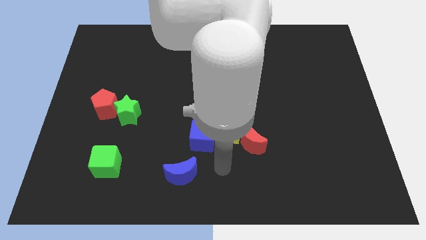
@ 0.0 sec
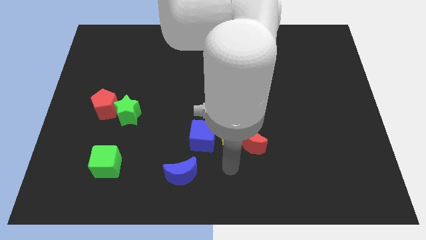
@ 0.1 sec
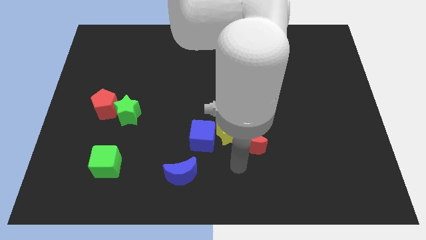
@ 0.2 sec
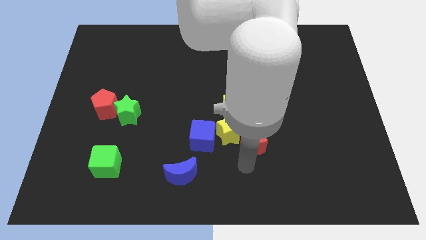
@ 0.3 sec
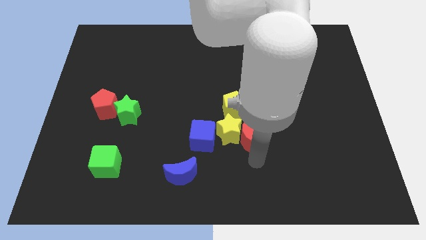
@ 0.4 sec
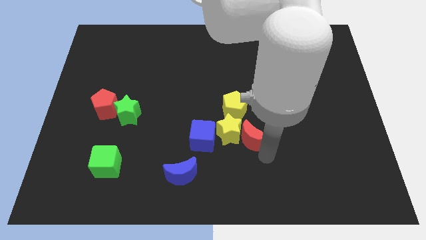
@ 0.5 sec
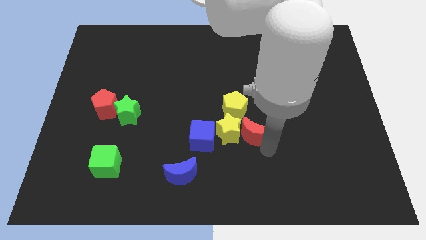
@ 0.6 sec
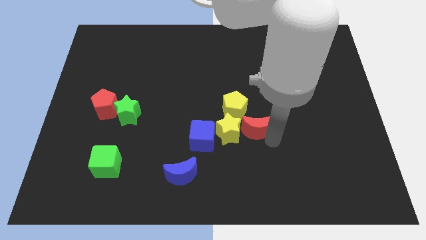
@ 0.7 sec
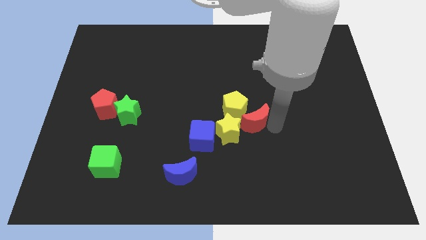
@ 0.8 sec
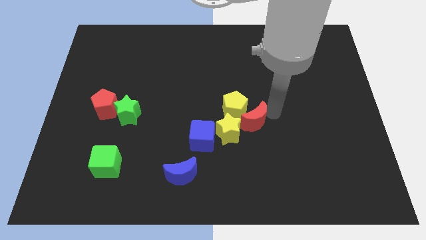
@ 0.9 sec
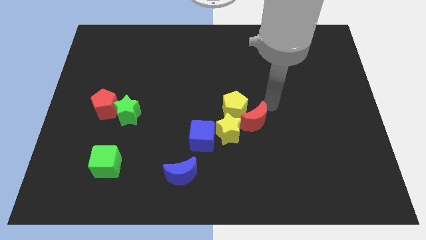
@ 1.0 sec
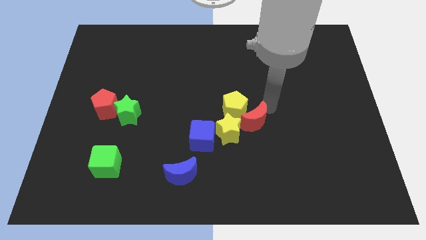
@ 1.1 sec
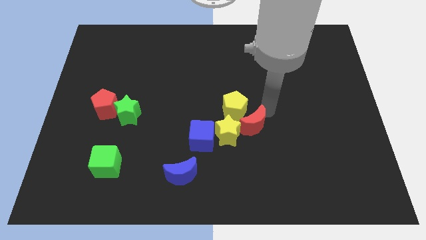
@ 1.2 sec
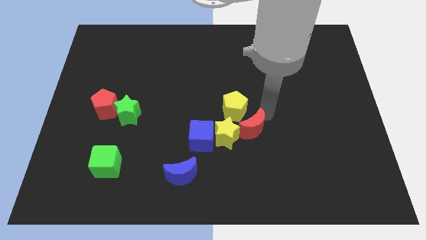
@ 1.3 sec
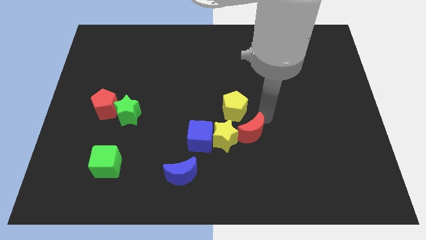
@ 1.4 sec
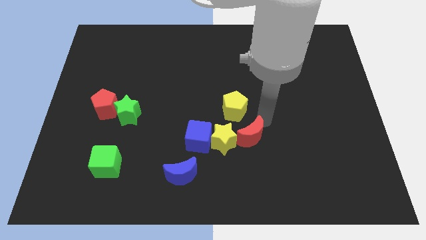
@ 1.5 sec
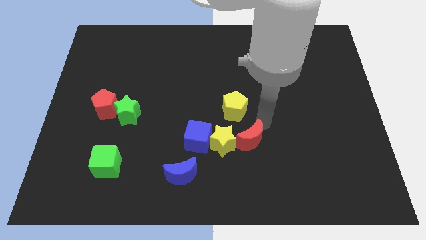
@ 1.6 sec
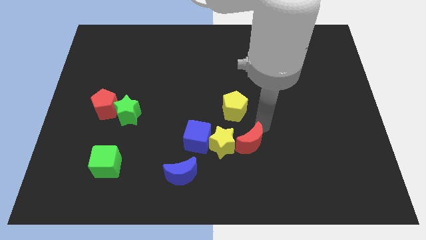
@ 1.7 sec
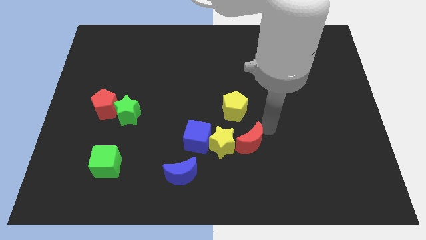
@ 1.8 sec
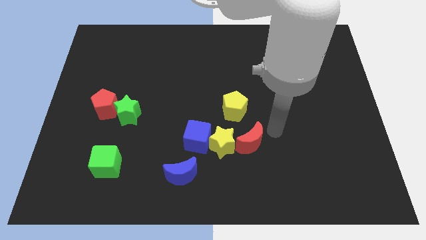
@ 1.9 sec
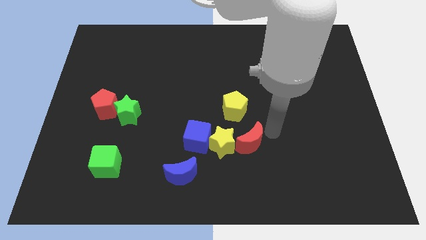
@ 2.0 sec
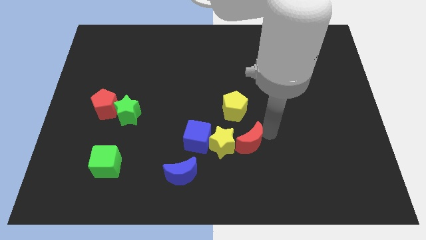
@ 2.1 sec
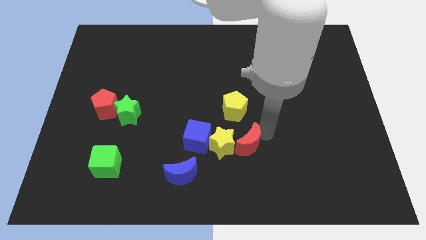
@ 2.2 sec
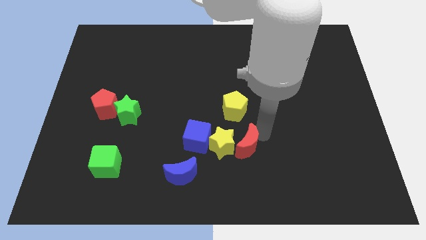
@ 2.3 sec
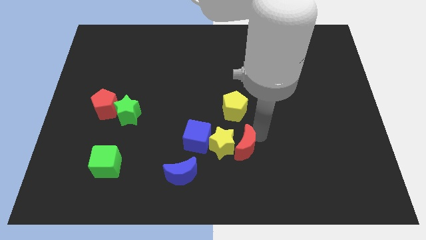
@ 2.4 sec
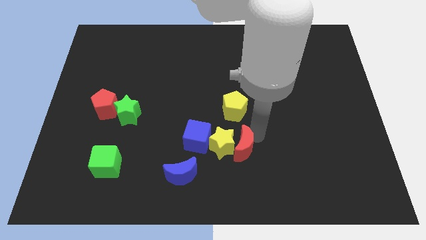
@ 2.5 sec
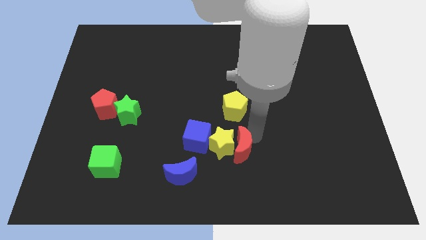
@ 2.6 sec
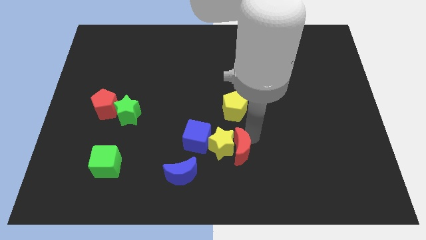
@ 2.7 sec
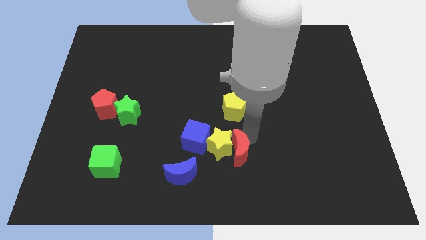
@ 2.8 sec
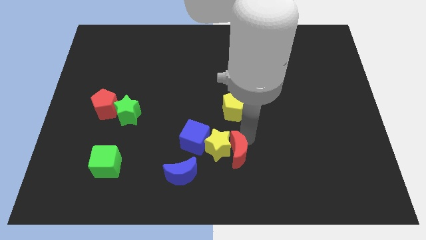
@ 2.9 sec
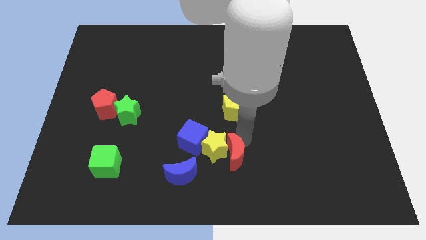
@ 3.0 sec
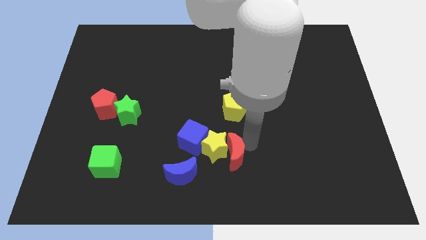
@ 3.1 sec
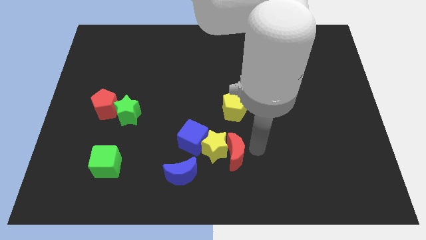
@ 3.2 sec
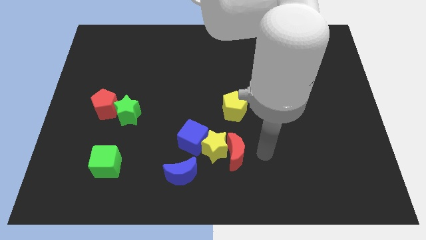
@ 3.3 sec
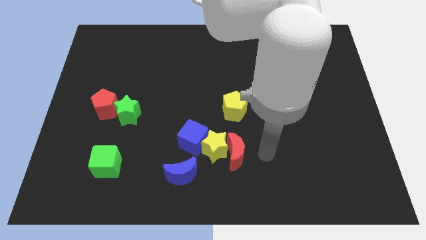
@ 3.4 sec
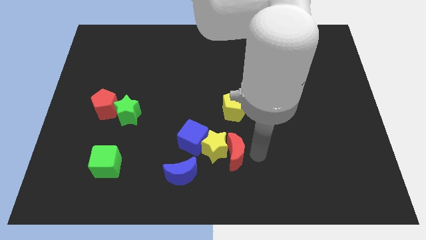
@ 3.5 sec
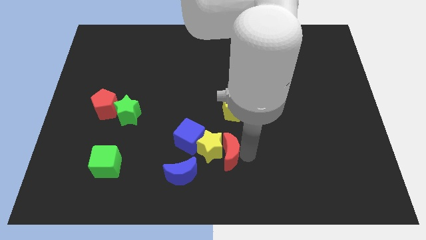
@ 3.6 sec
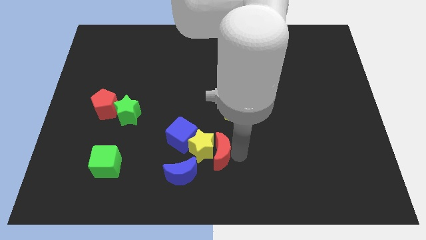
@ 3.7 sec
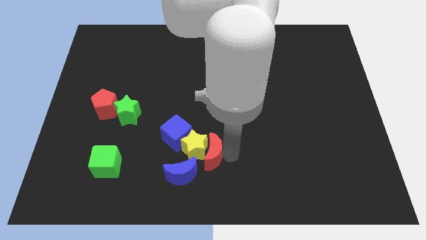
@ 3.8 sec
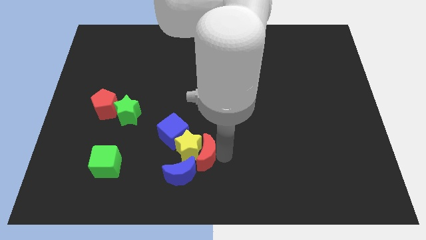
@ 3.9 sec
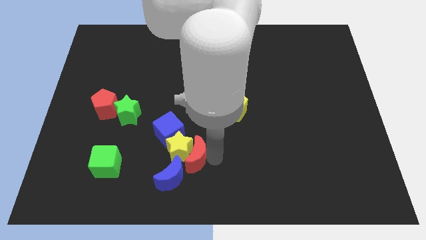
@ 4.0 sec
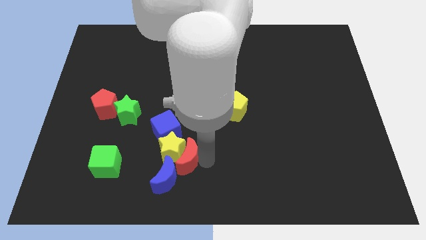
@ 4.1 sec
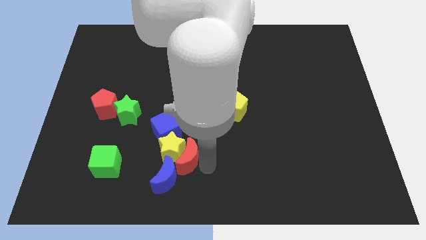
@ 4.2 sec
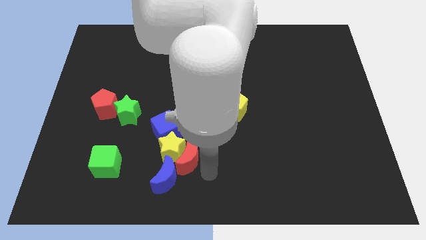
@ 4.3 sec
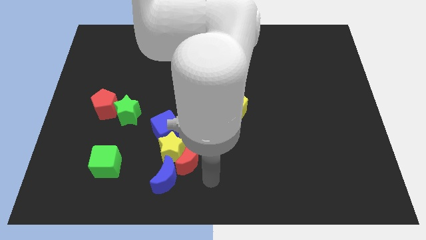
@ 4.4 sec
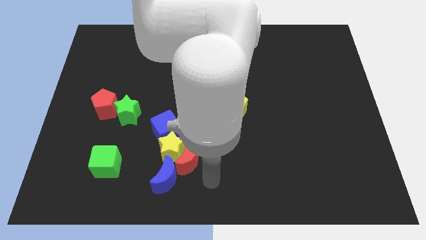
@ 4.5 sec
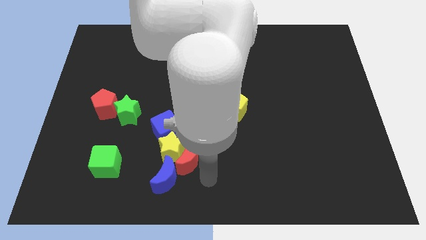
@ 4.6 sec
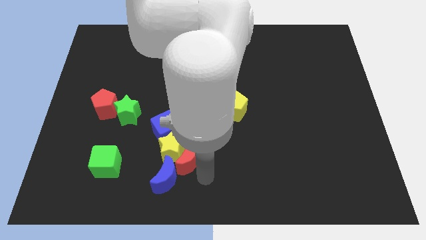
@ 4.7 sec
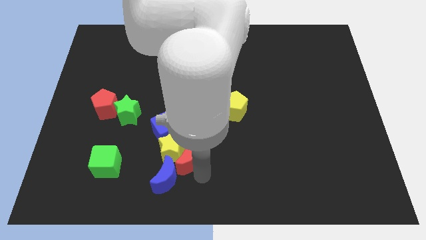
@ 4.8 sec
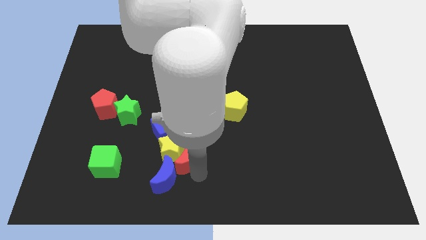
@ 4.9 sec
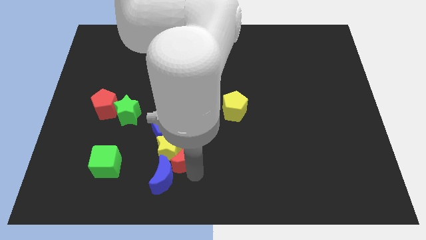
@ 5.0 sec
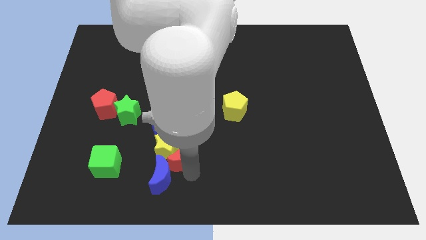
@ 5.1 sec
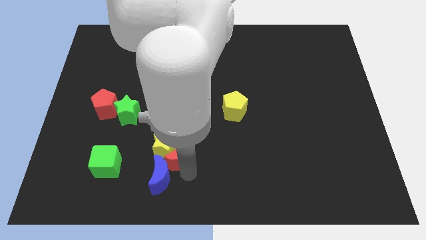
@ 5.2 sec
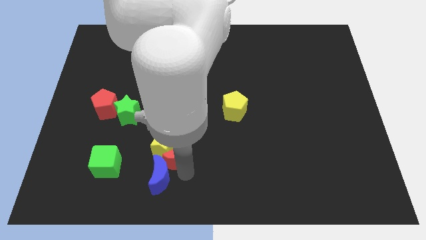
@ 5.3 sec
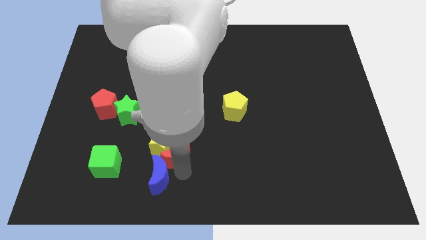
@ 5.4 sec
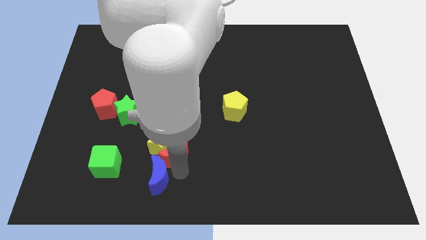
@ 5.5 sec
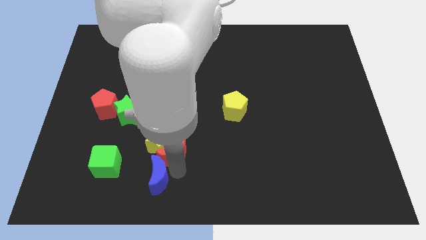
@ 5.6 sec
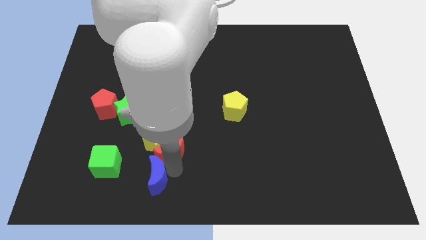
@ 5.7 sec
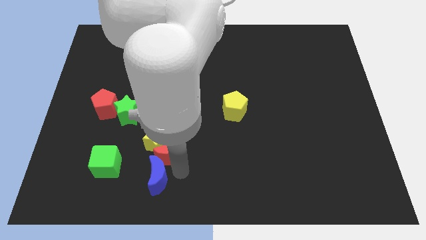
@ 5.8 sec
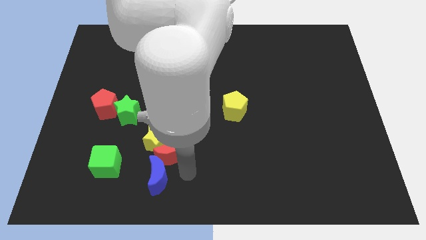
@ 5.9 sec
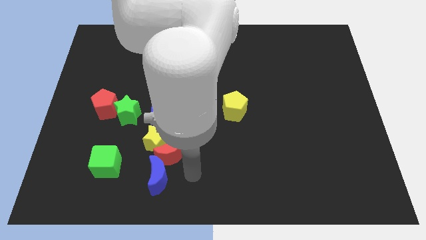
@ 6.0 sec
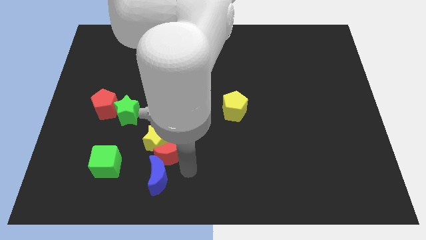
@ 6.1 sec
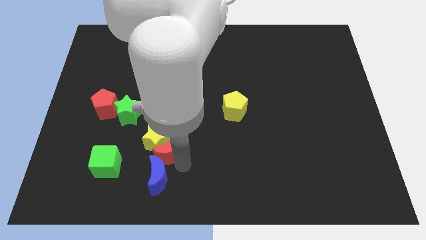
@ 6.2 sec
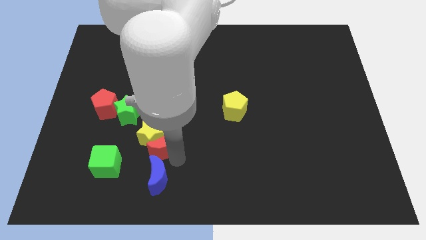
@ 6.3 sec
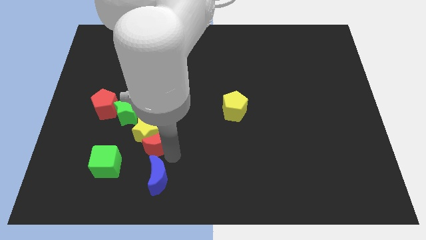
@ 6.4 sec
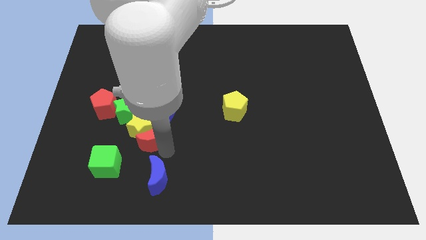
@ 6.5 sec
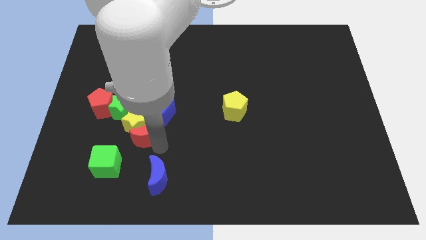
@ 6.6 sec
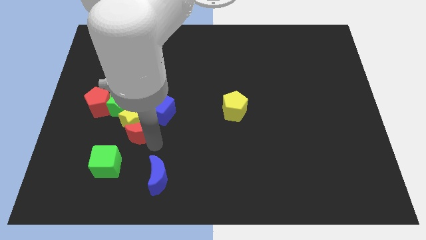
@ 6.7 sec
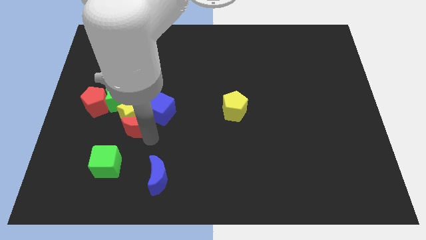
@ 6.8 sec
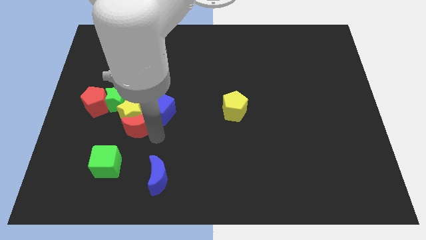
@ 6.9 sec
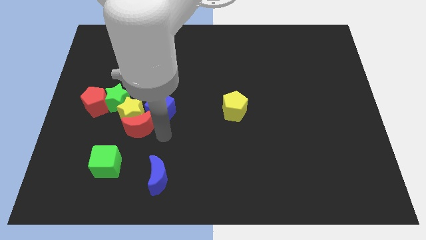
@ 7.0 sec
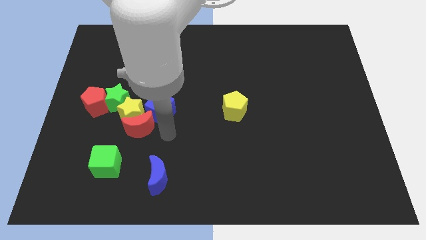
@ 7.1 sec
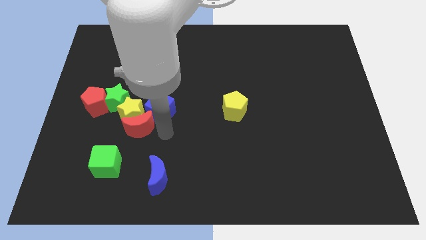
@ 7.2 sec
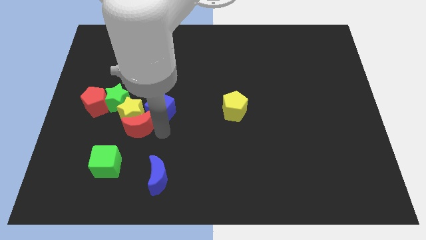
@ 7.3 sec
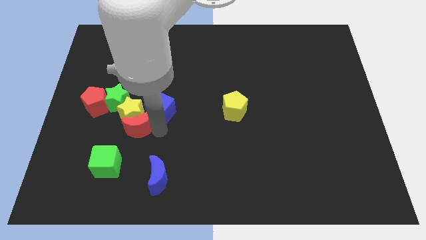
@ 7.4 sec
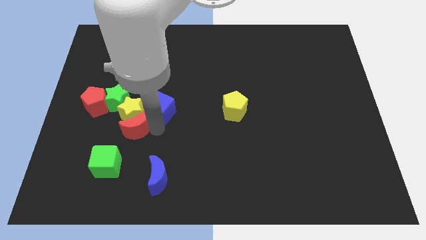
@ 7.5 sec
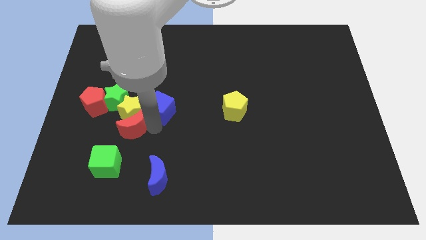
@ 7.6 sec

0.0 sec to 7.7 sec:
put the red moon to the top side of the green cube
